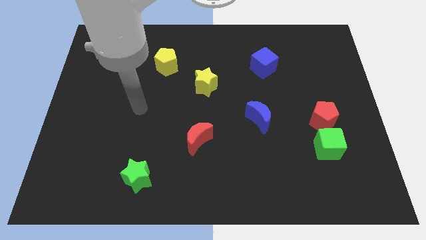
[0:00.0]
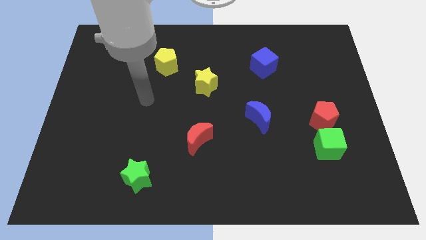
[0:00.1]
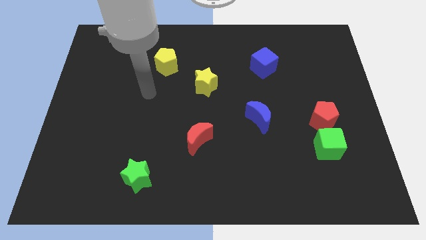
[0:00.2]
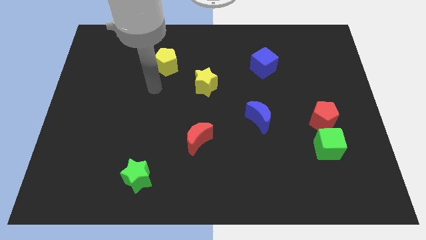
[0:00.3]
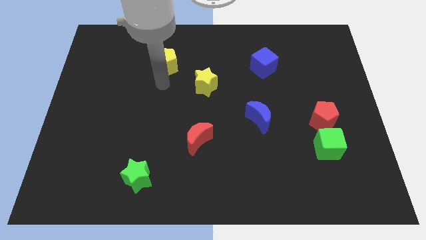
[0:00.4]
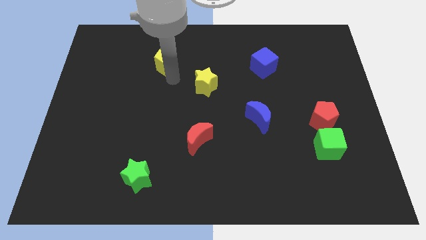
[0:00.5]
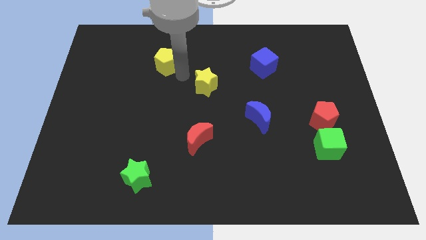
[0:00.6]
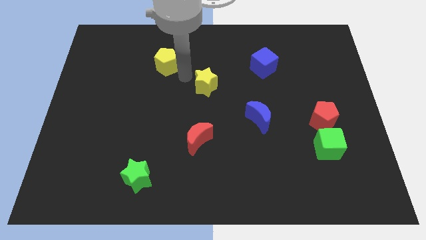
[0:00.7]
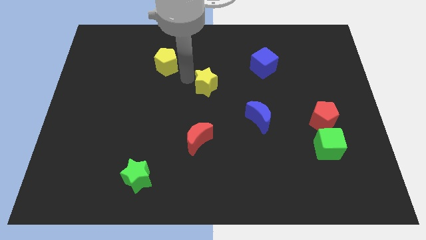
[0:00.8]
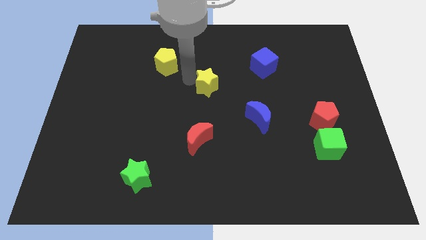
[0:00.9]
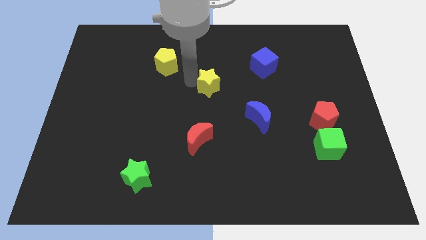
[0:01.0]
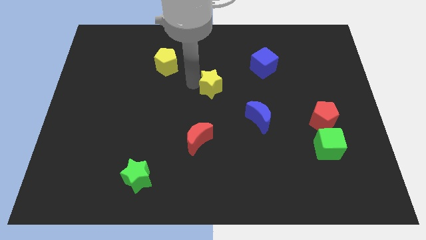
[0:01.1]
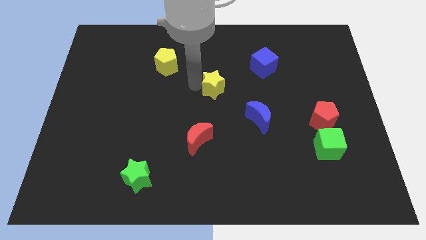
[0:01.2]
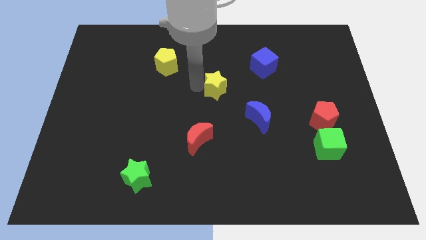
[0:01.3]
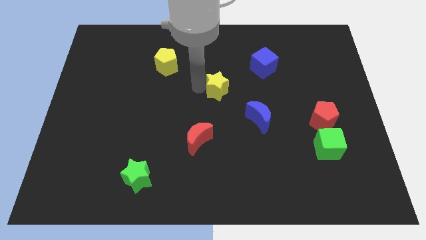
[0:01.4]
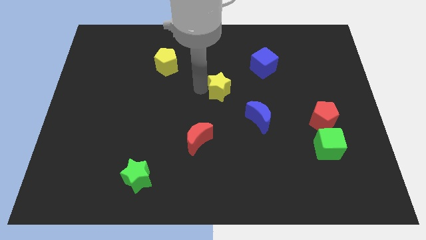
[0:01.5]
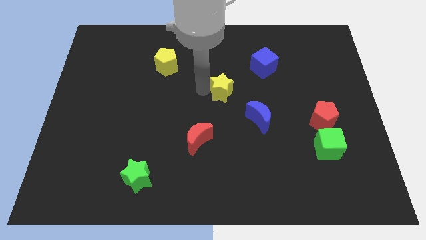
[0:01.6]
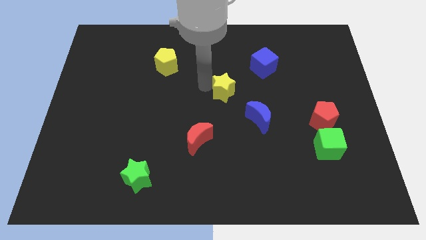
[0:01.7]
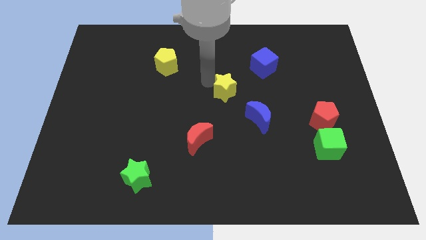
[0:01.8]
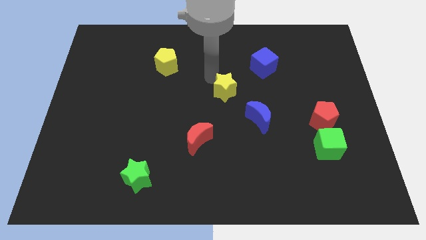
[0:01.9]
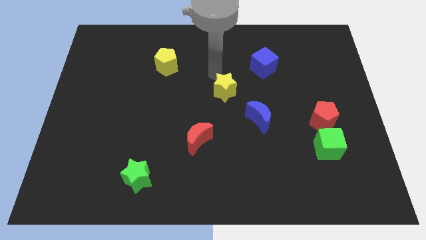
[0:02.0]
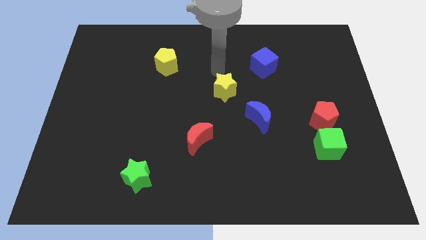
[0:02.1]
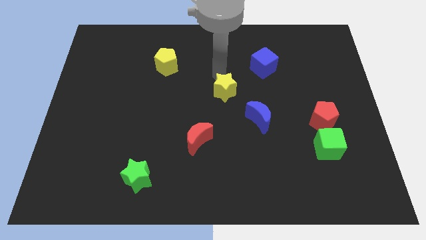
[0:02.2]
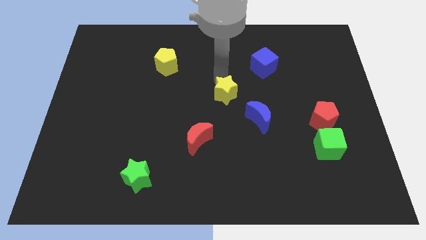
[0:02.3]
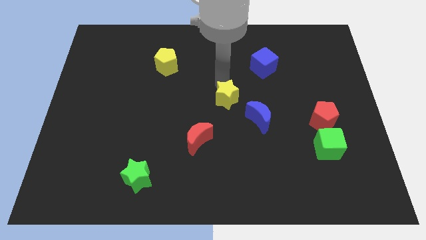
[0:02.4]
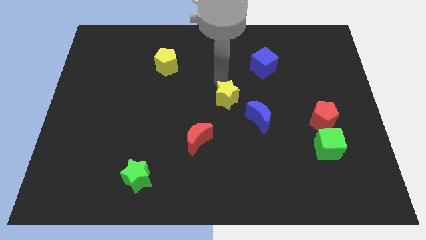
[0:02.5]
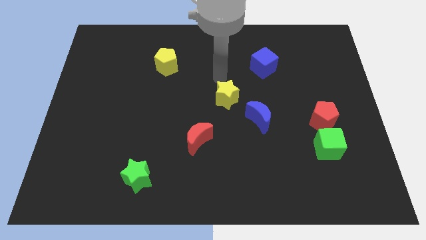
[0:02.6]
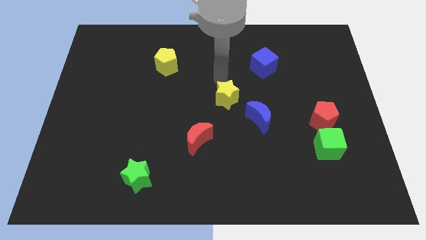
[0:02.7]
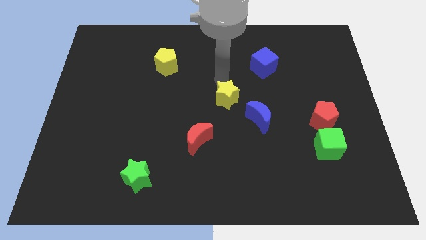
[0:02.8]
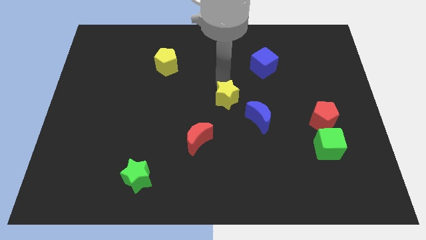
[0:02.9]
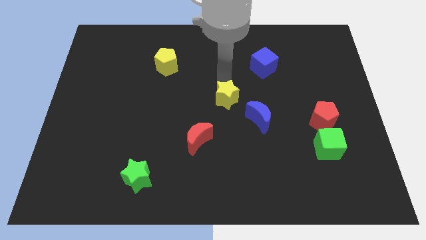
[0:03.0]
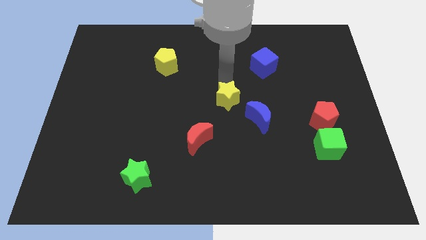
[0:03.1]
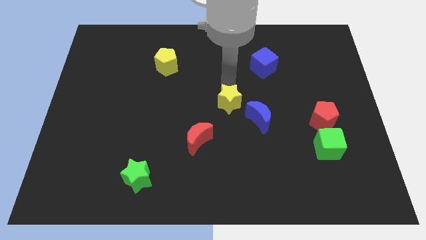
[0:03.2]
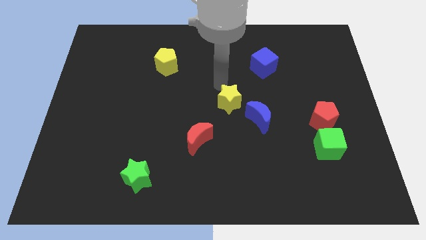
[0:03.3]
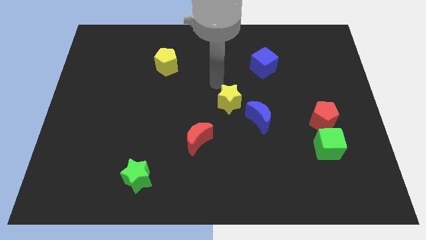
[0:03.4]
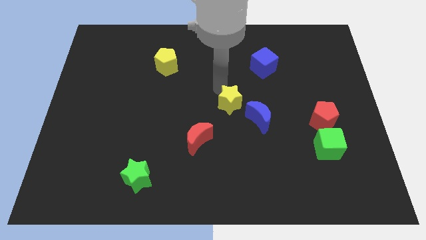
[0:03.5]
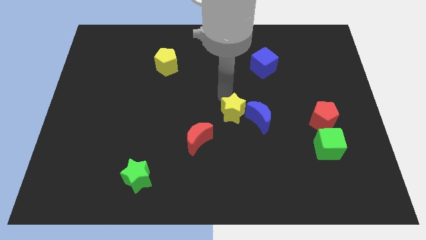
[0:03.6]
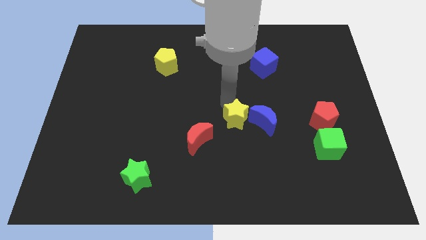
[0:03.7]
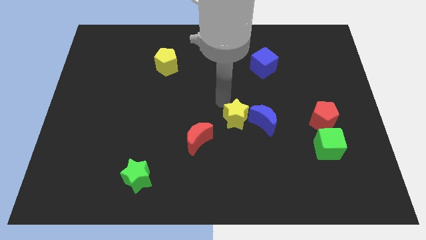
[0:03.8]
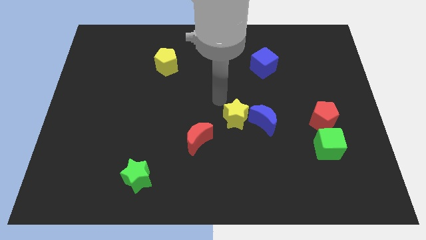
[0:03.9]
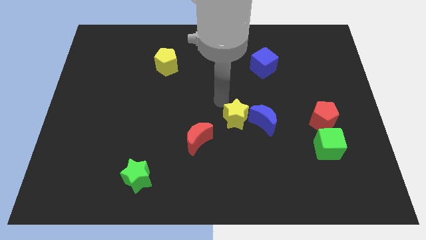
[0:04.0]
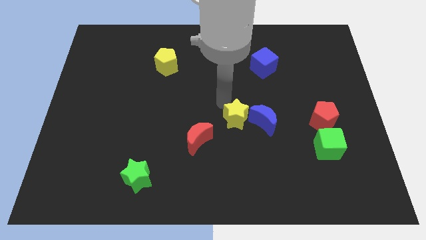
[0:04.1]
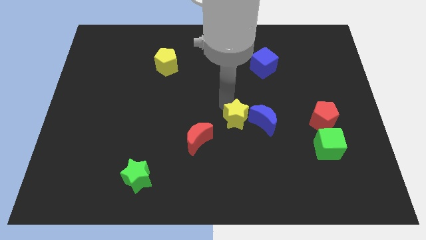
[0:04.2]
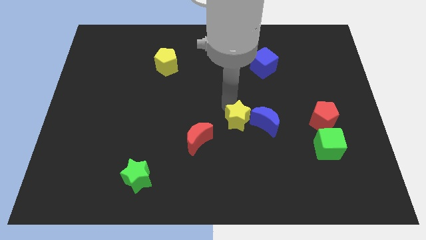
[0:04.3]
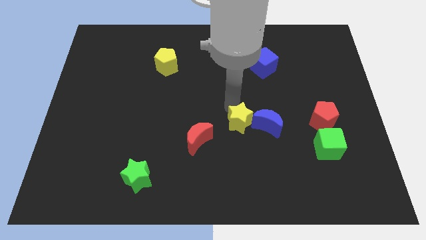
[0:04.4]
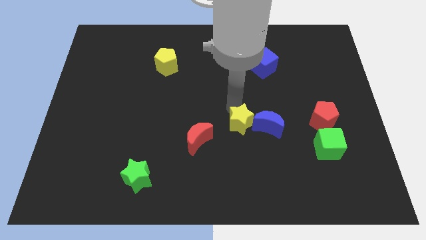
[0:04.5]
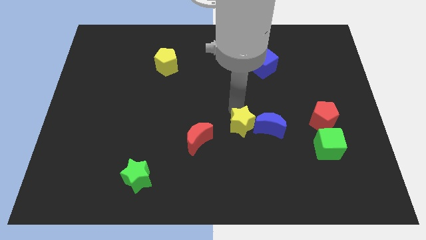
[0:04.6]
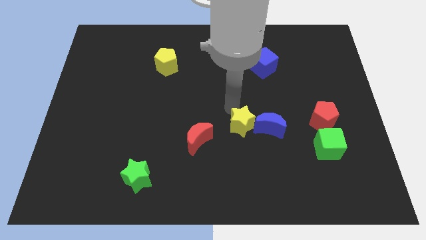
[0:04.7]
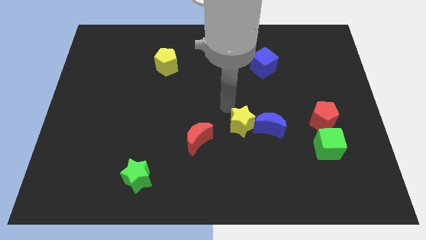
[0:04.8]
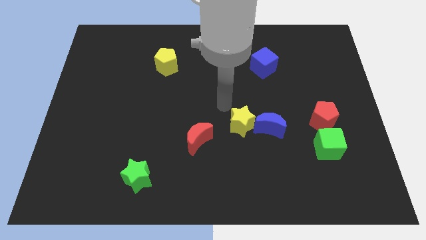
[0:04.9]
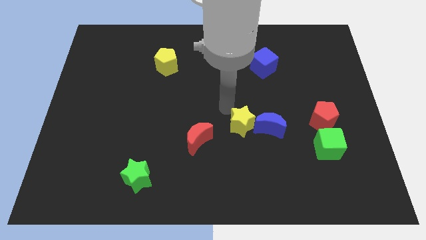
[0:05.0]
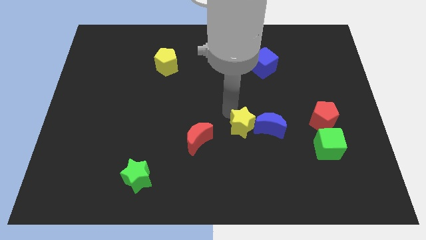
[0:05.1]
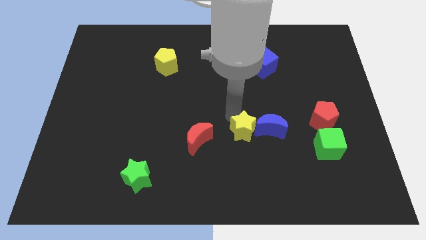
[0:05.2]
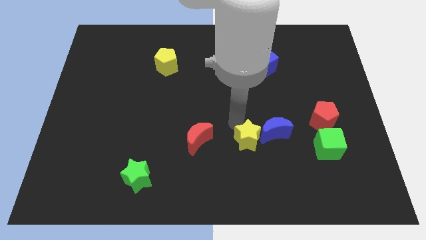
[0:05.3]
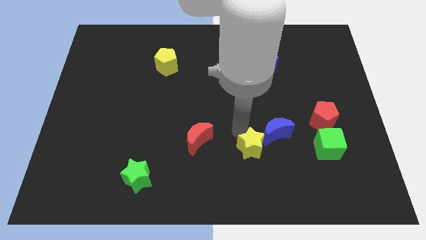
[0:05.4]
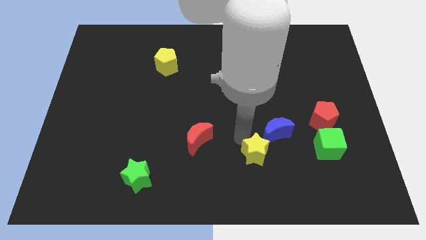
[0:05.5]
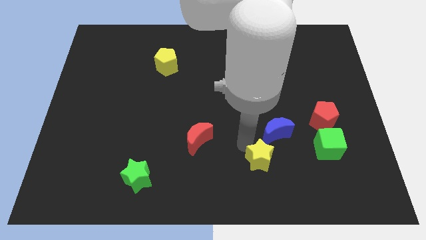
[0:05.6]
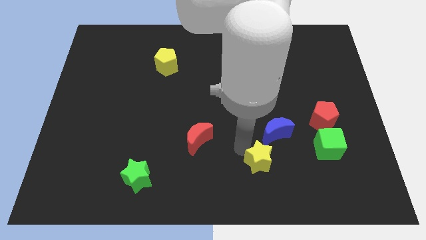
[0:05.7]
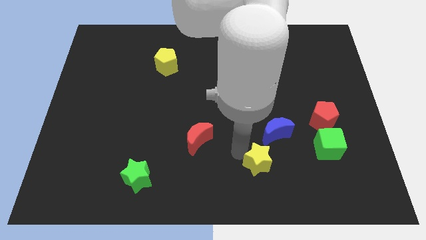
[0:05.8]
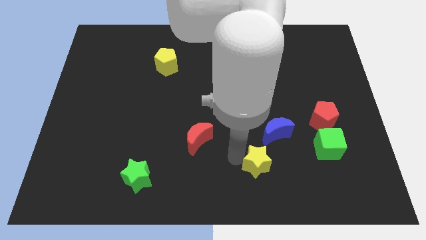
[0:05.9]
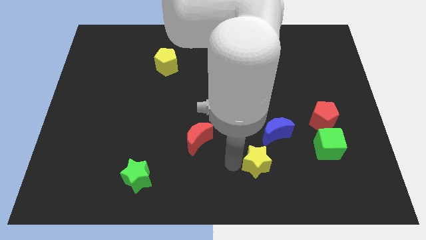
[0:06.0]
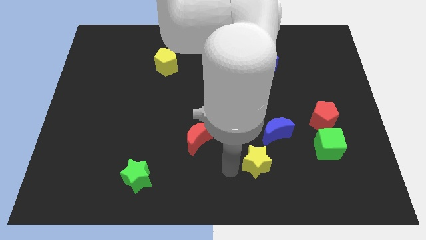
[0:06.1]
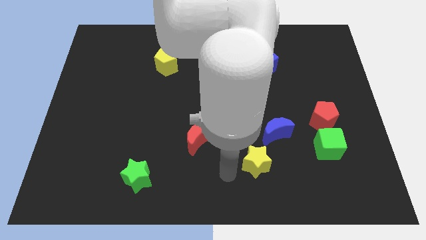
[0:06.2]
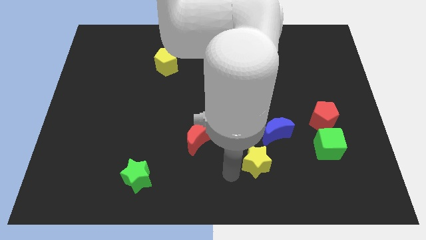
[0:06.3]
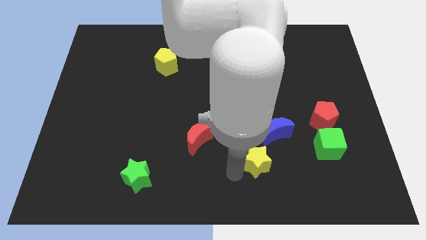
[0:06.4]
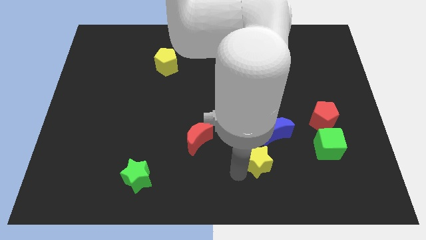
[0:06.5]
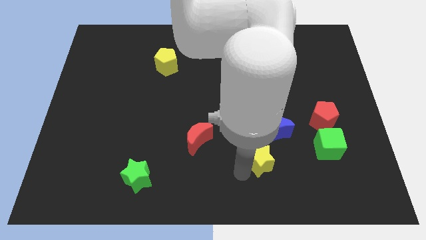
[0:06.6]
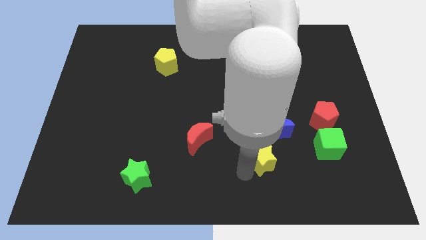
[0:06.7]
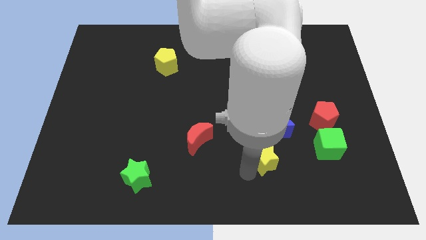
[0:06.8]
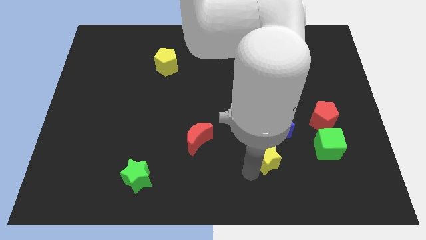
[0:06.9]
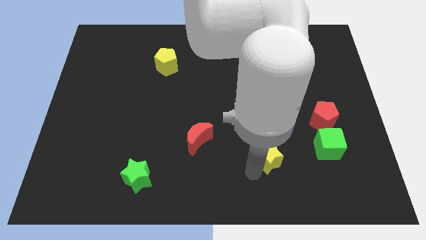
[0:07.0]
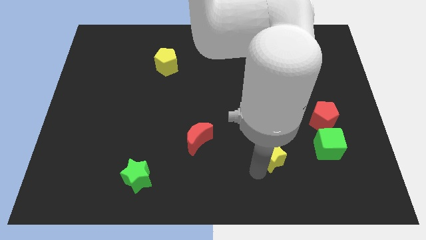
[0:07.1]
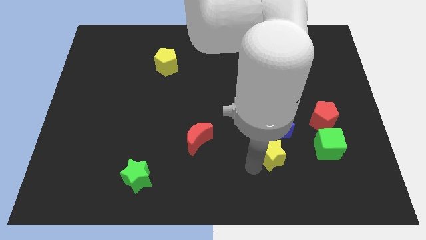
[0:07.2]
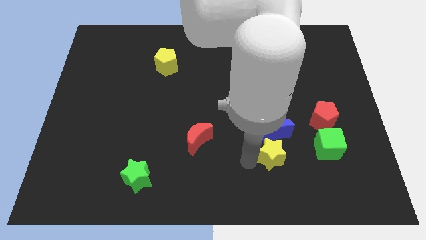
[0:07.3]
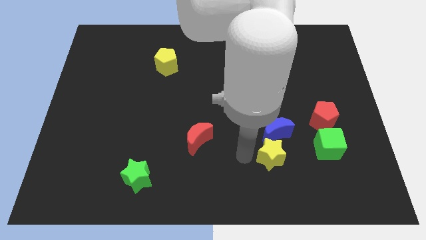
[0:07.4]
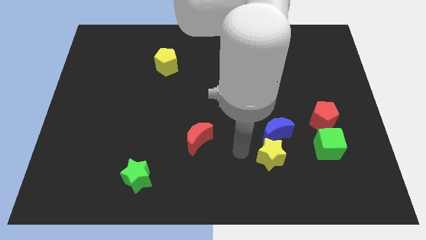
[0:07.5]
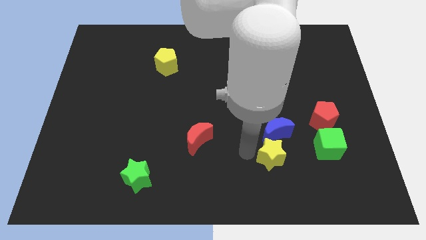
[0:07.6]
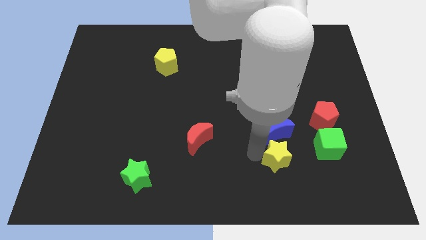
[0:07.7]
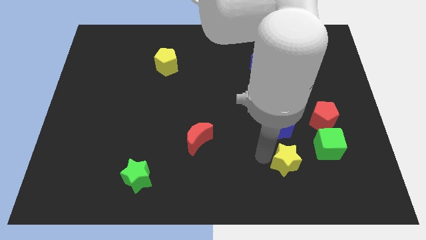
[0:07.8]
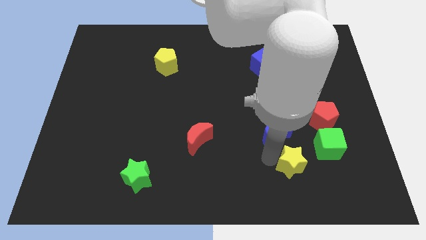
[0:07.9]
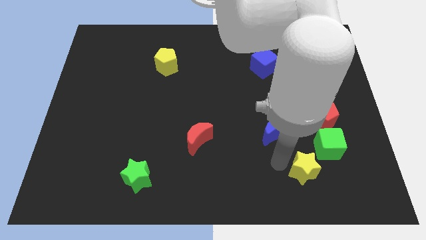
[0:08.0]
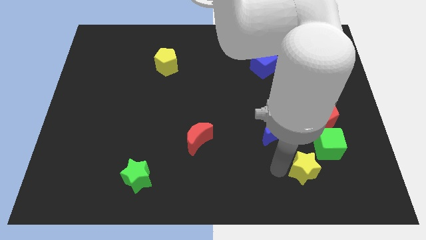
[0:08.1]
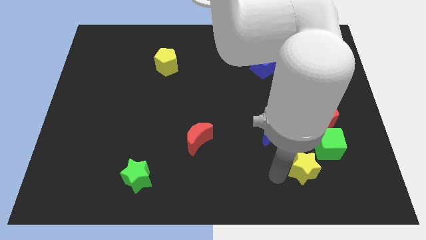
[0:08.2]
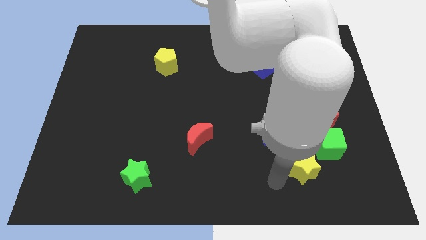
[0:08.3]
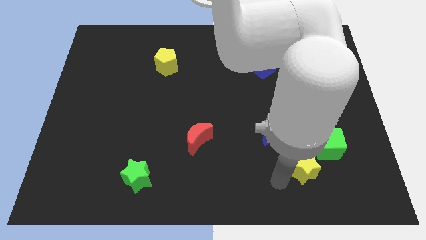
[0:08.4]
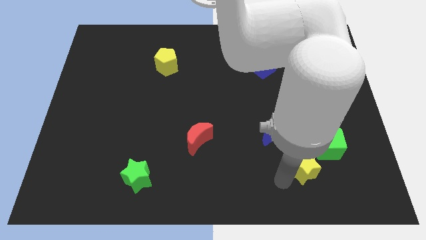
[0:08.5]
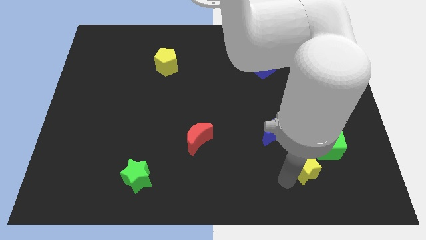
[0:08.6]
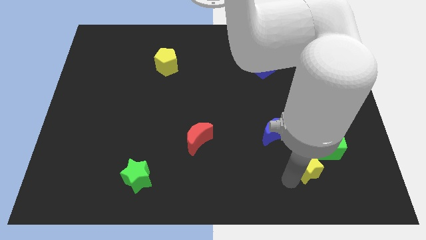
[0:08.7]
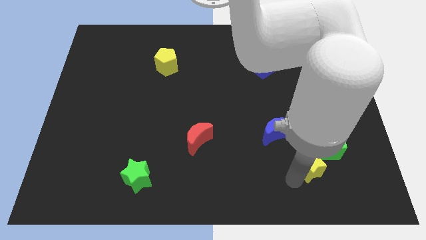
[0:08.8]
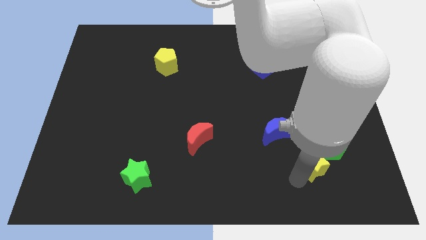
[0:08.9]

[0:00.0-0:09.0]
put the yellow star to the bottom of the red pentagon
